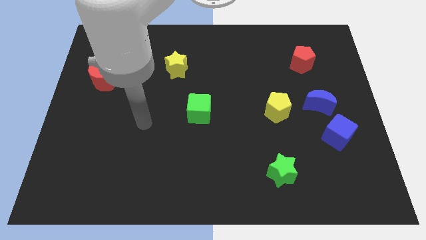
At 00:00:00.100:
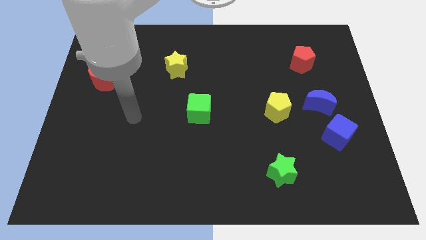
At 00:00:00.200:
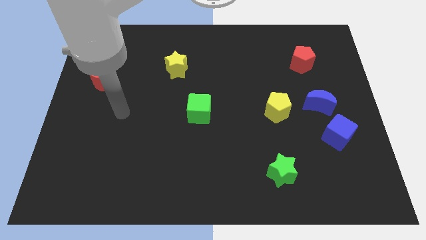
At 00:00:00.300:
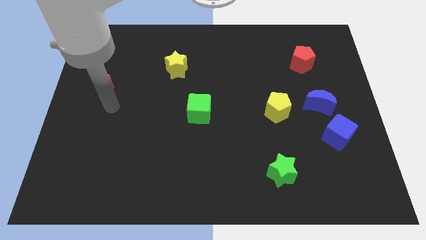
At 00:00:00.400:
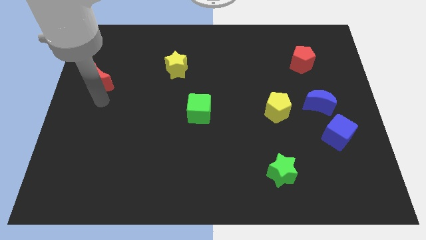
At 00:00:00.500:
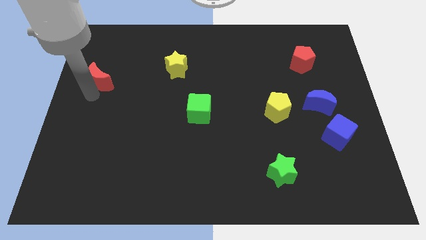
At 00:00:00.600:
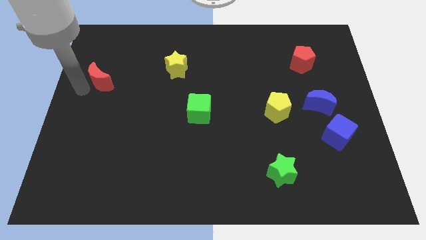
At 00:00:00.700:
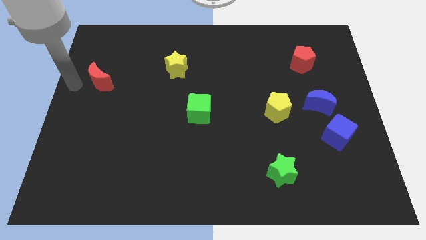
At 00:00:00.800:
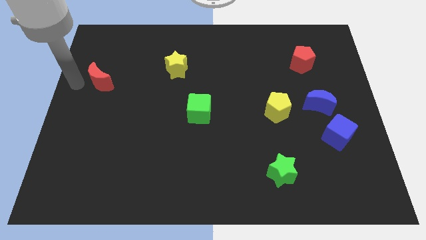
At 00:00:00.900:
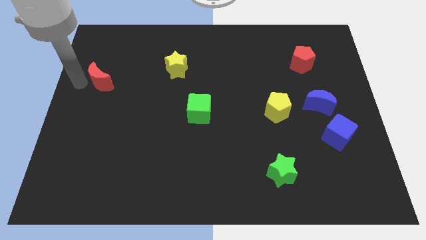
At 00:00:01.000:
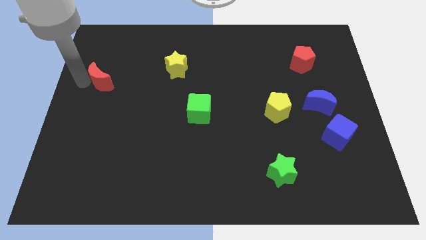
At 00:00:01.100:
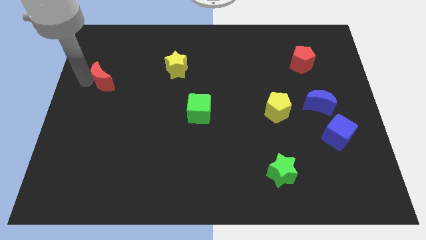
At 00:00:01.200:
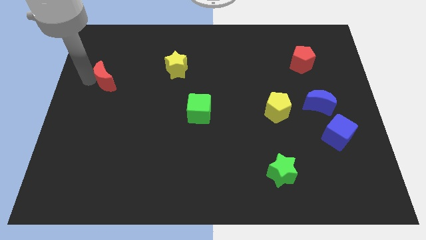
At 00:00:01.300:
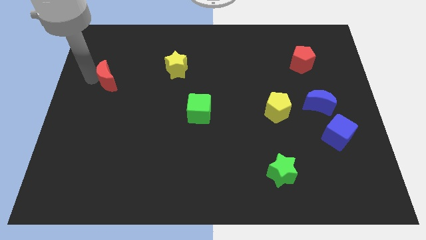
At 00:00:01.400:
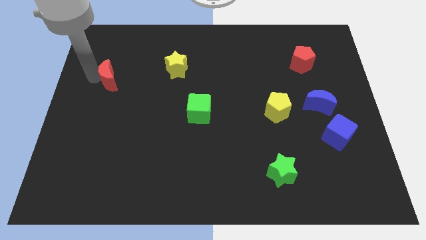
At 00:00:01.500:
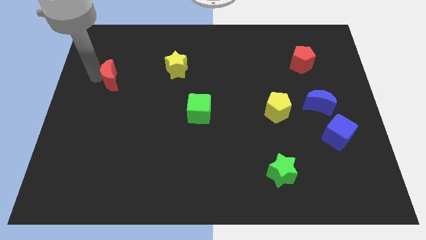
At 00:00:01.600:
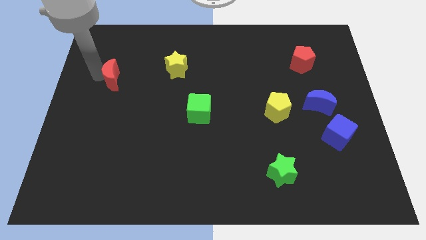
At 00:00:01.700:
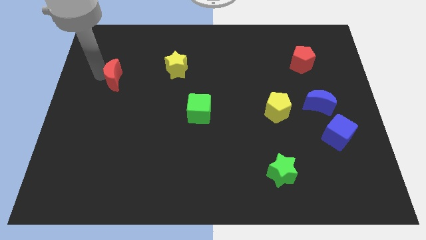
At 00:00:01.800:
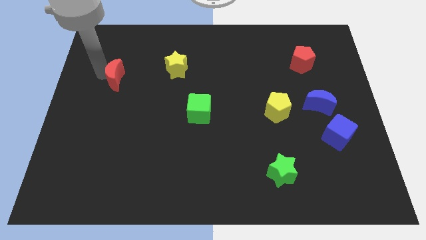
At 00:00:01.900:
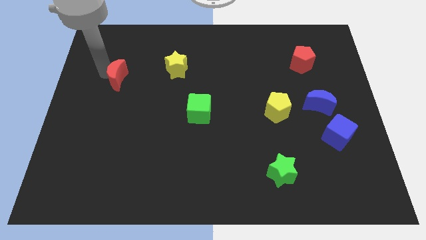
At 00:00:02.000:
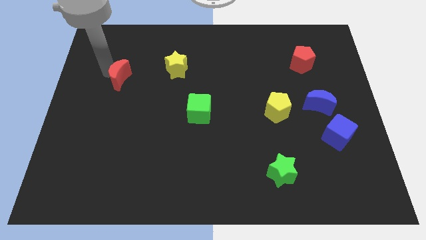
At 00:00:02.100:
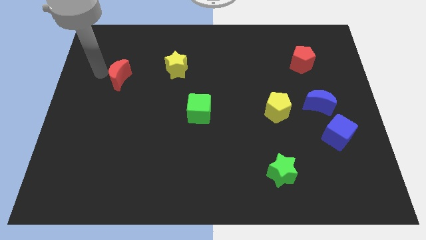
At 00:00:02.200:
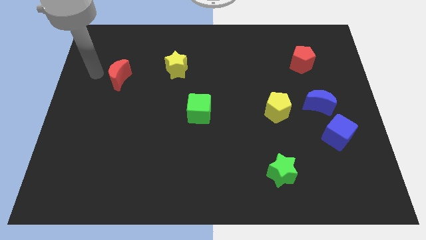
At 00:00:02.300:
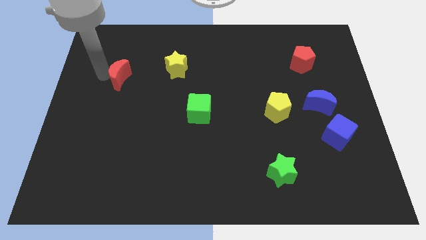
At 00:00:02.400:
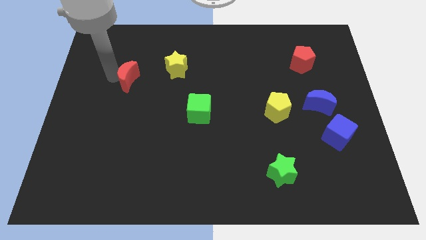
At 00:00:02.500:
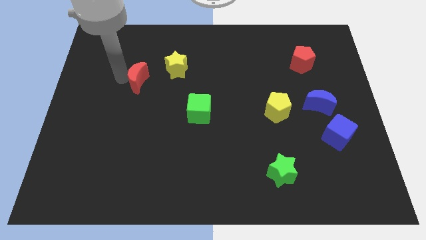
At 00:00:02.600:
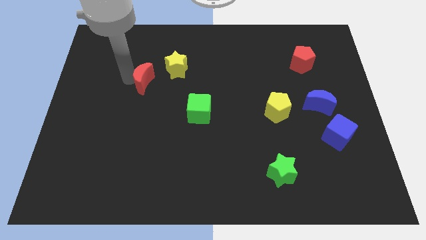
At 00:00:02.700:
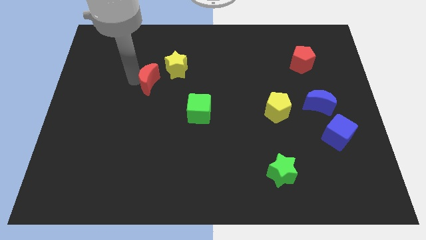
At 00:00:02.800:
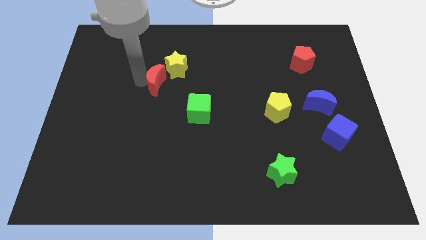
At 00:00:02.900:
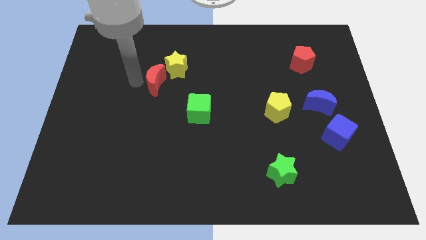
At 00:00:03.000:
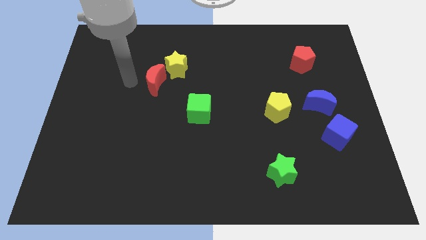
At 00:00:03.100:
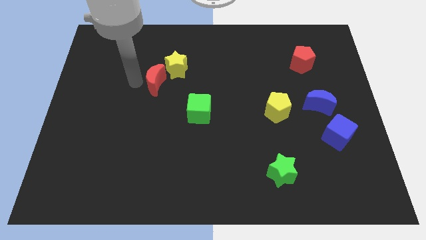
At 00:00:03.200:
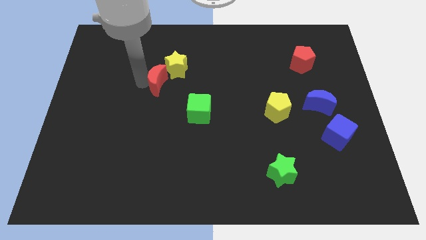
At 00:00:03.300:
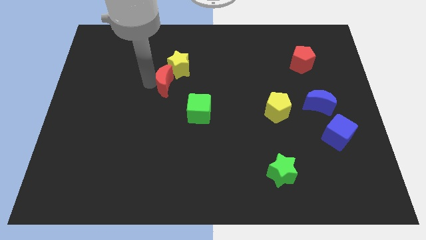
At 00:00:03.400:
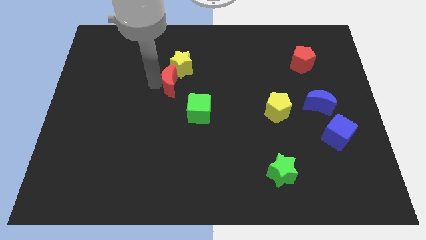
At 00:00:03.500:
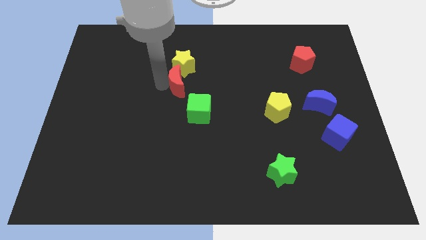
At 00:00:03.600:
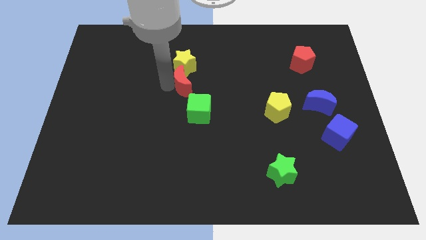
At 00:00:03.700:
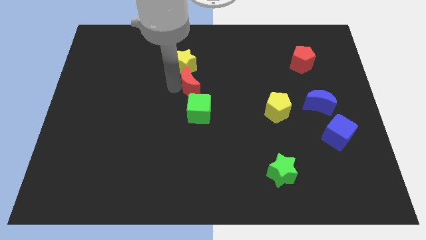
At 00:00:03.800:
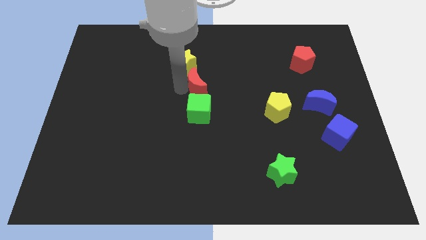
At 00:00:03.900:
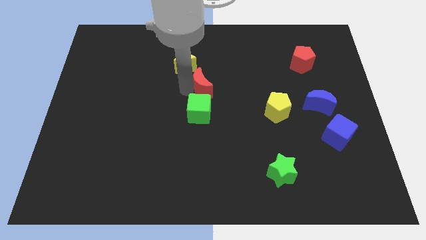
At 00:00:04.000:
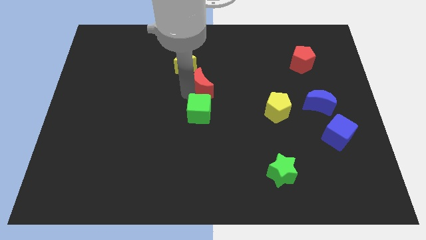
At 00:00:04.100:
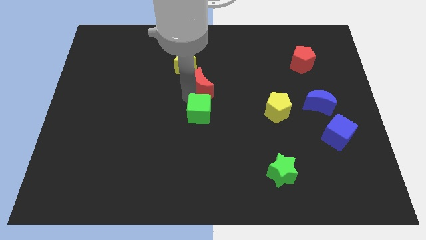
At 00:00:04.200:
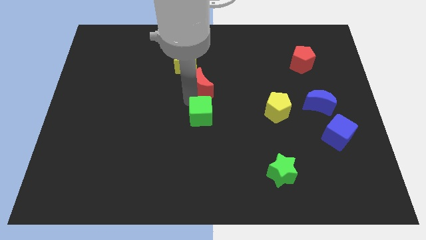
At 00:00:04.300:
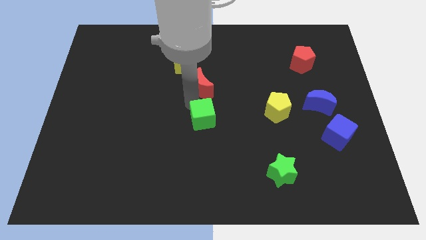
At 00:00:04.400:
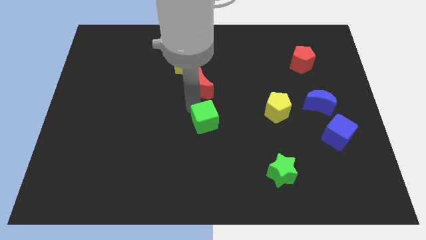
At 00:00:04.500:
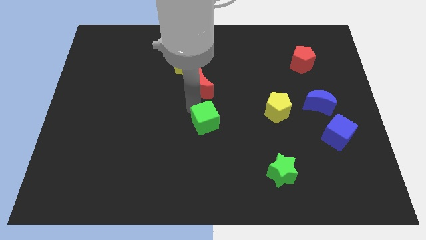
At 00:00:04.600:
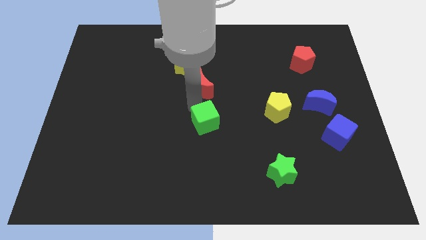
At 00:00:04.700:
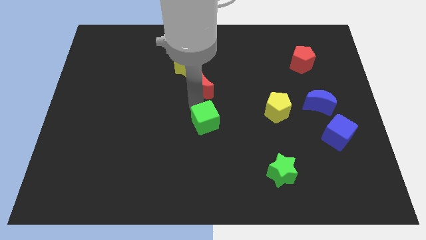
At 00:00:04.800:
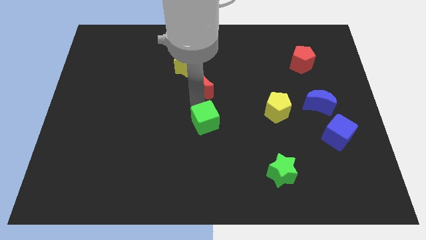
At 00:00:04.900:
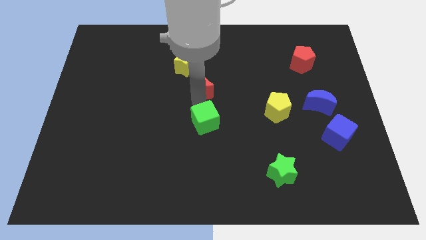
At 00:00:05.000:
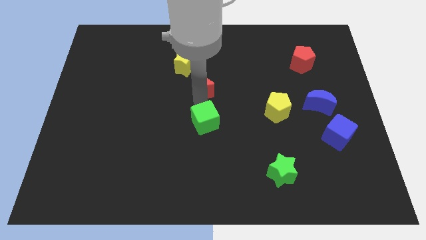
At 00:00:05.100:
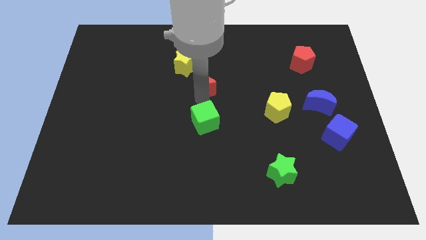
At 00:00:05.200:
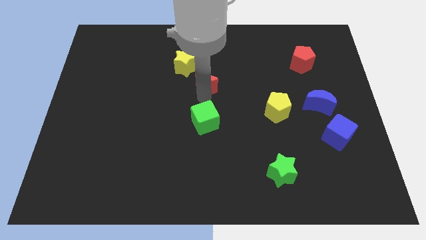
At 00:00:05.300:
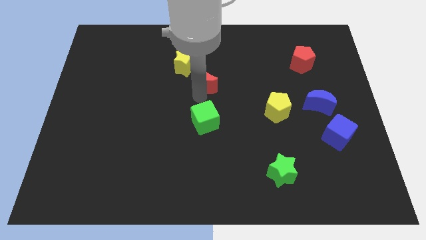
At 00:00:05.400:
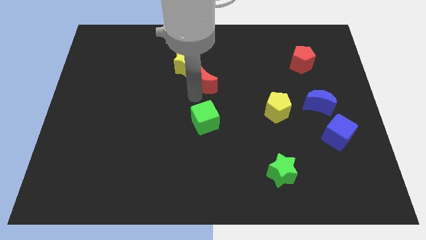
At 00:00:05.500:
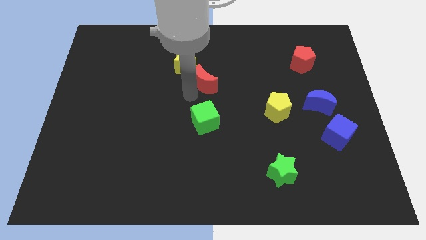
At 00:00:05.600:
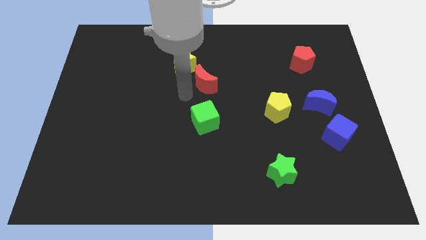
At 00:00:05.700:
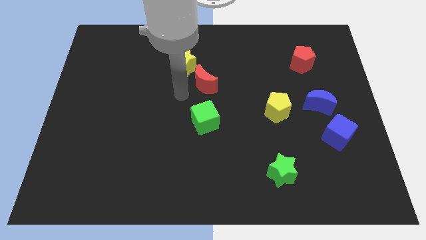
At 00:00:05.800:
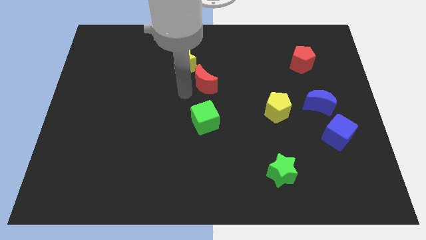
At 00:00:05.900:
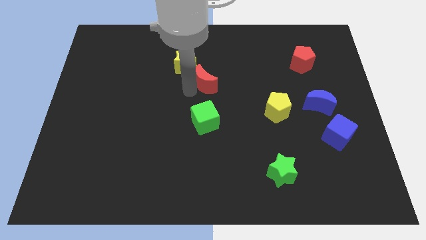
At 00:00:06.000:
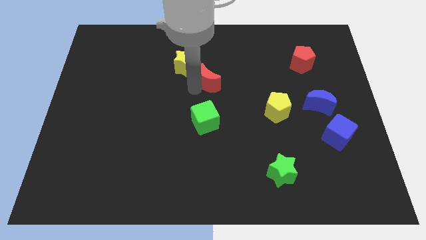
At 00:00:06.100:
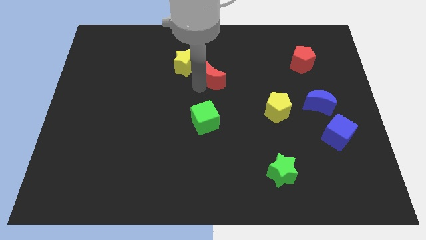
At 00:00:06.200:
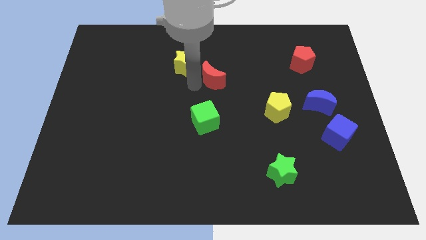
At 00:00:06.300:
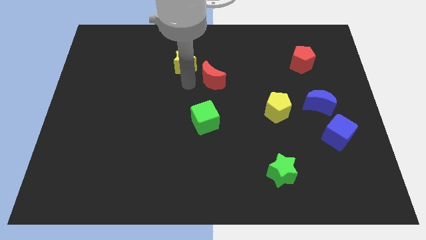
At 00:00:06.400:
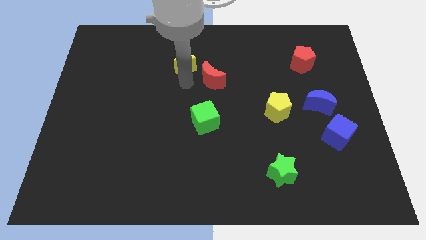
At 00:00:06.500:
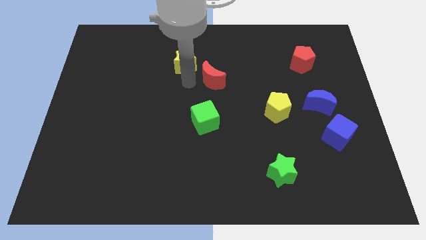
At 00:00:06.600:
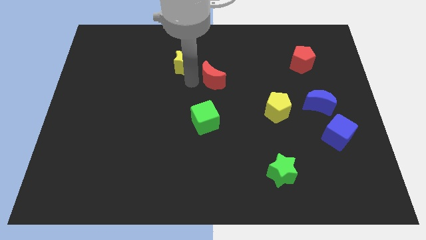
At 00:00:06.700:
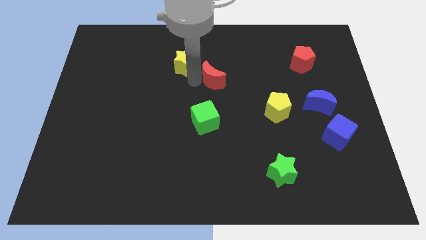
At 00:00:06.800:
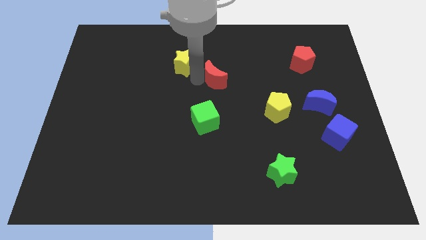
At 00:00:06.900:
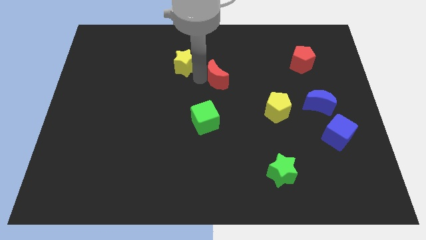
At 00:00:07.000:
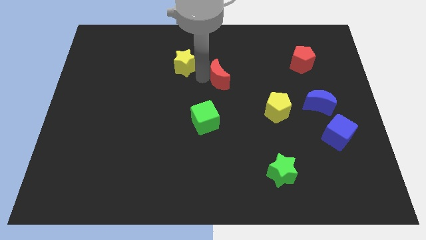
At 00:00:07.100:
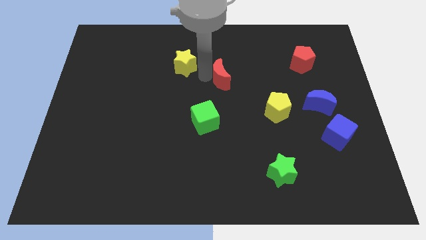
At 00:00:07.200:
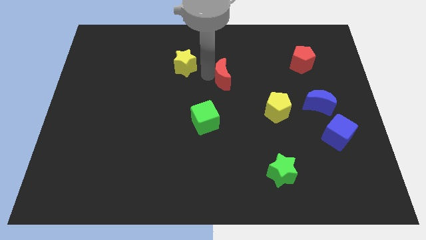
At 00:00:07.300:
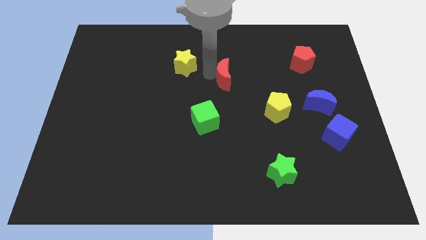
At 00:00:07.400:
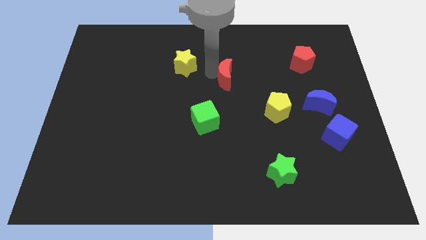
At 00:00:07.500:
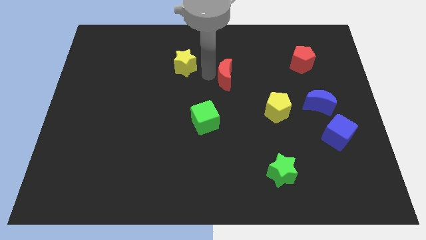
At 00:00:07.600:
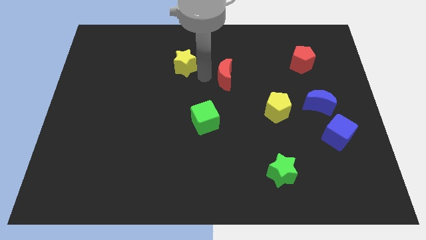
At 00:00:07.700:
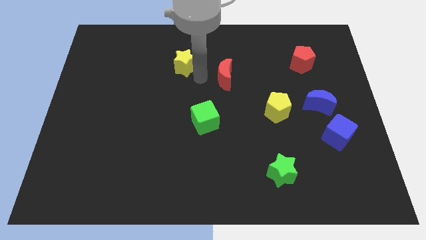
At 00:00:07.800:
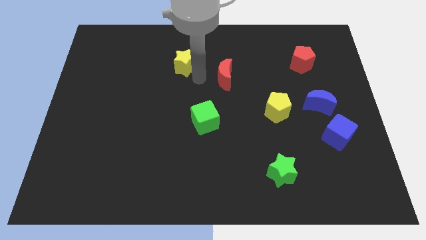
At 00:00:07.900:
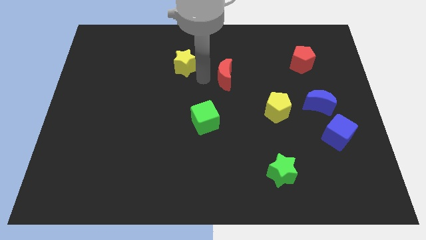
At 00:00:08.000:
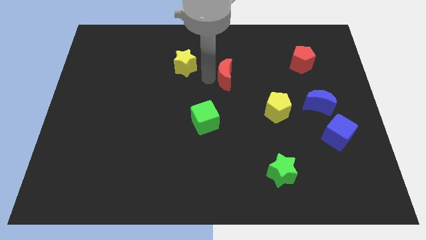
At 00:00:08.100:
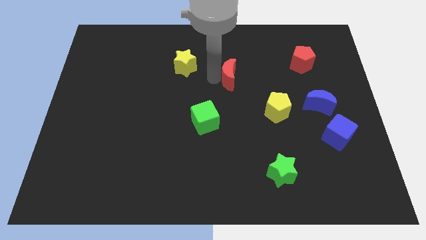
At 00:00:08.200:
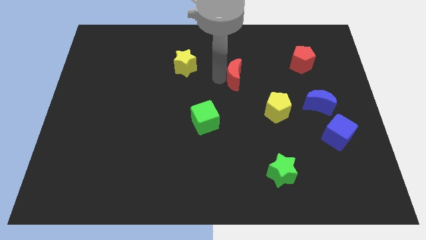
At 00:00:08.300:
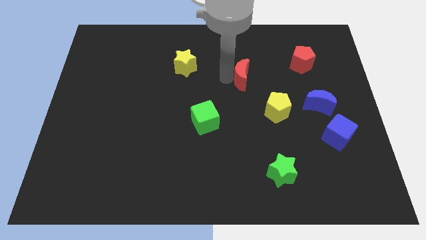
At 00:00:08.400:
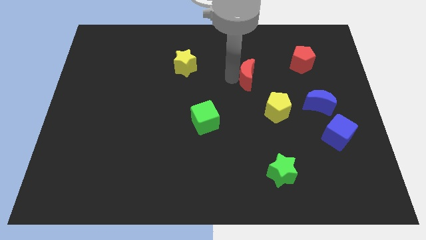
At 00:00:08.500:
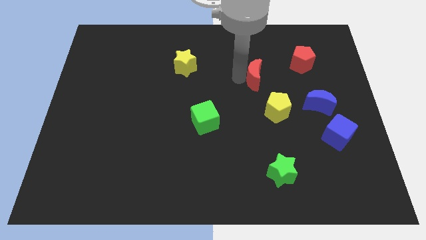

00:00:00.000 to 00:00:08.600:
push the red moon to the top side of the yellow pentagon
